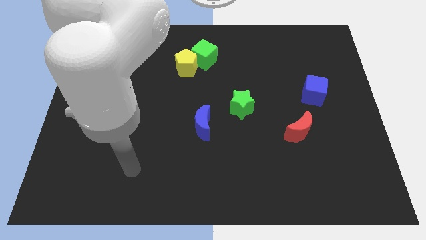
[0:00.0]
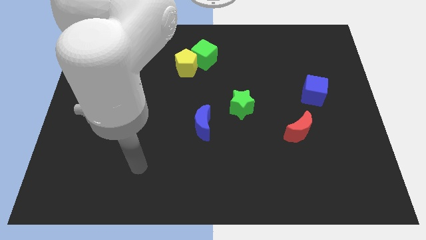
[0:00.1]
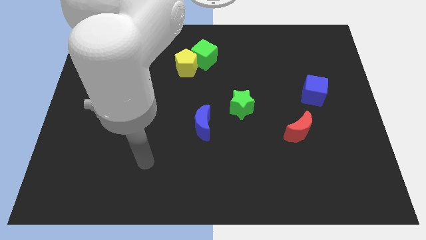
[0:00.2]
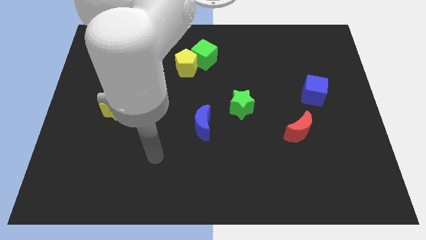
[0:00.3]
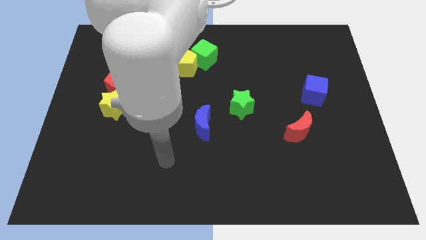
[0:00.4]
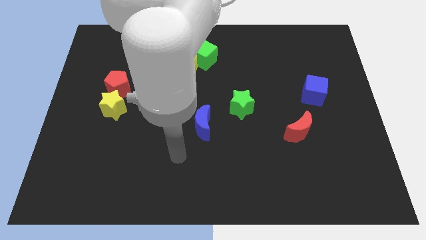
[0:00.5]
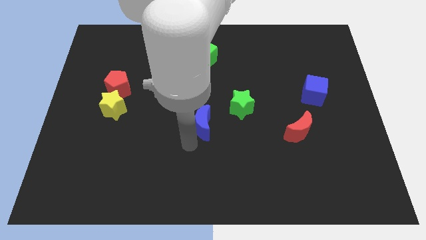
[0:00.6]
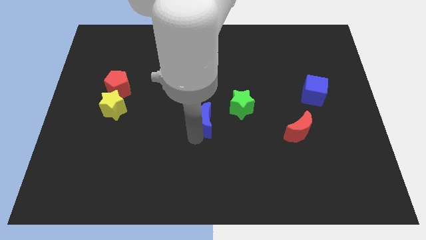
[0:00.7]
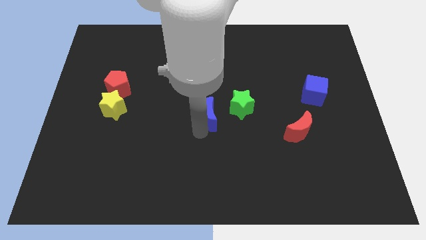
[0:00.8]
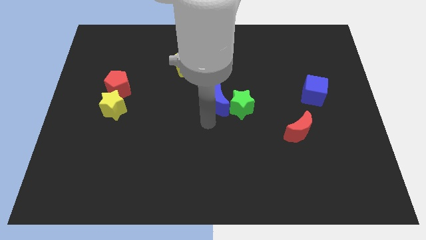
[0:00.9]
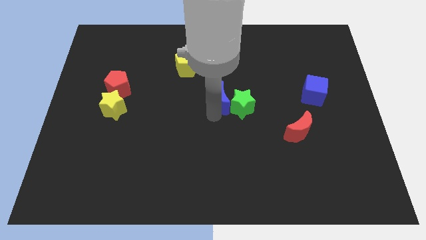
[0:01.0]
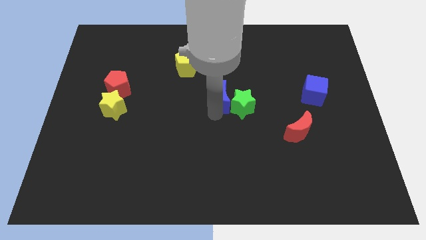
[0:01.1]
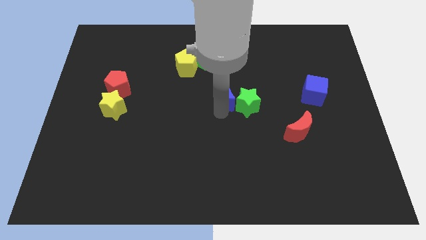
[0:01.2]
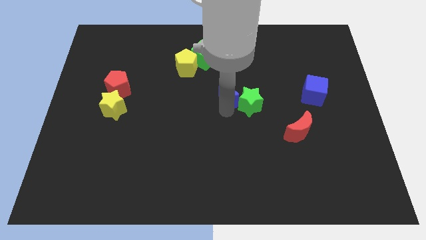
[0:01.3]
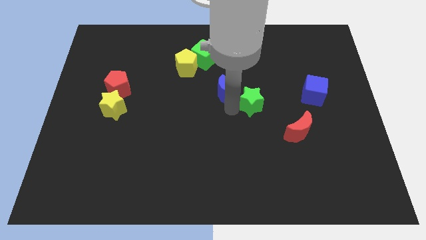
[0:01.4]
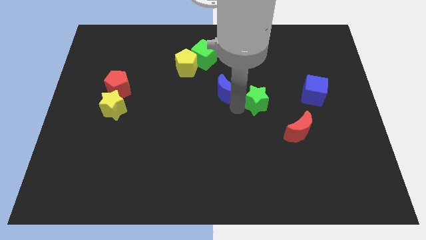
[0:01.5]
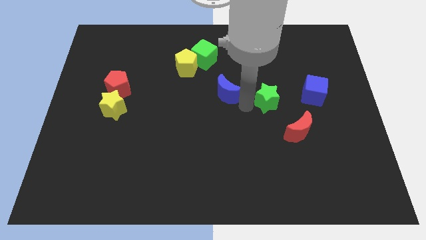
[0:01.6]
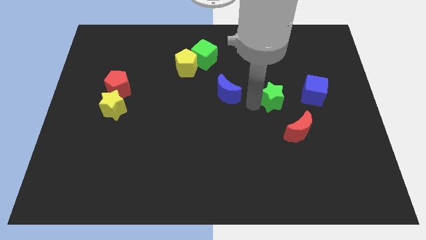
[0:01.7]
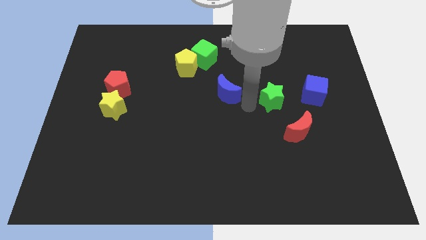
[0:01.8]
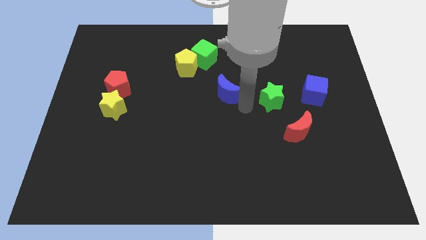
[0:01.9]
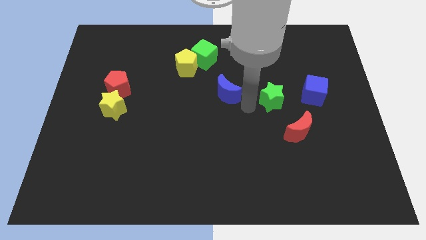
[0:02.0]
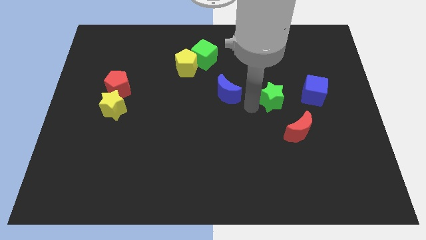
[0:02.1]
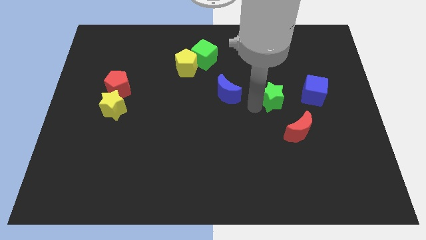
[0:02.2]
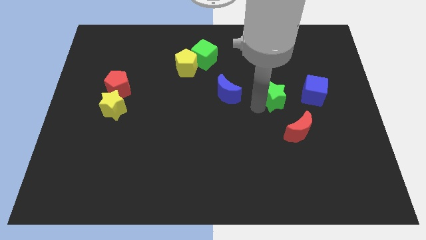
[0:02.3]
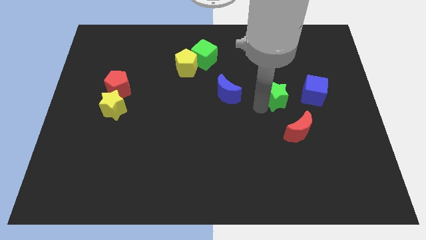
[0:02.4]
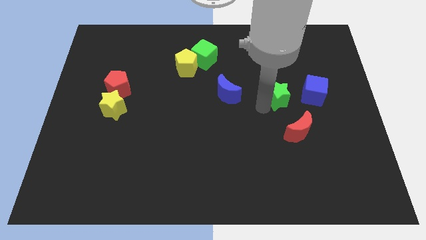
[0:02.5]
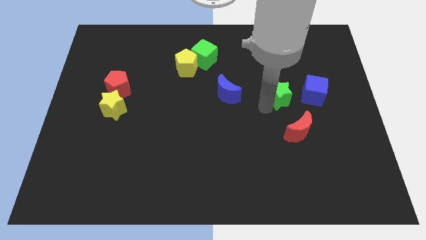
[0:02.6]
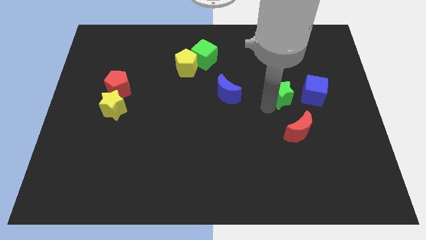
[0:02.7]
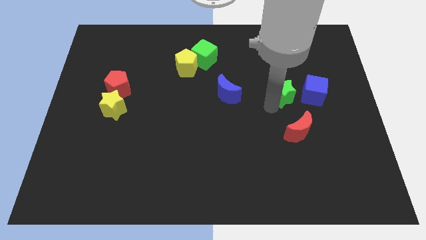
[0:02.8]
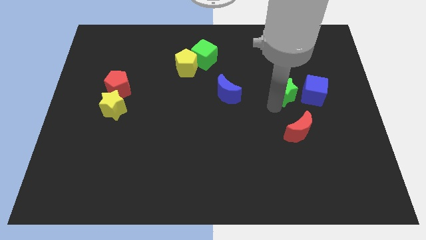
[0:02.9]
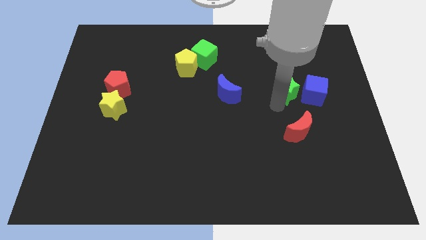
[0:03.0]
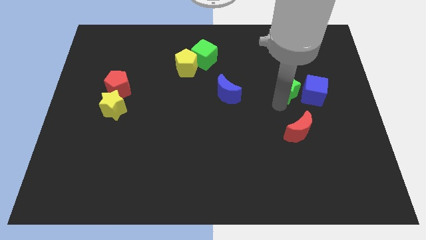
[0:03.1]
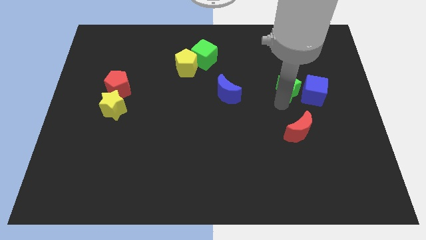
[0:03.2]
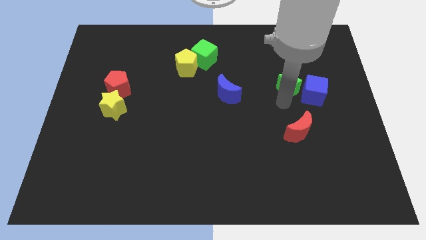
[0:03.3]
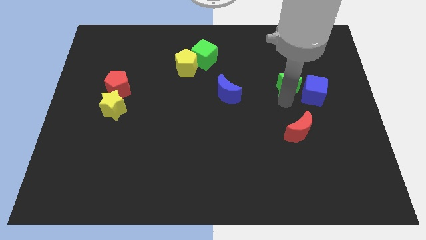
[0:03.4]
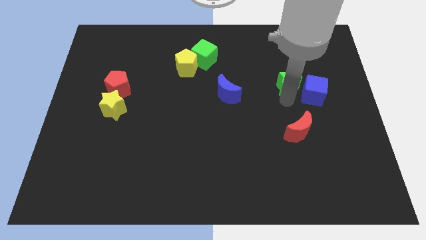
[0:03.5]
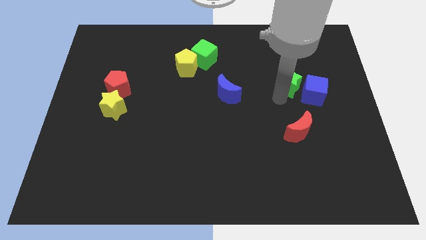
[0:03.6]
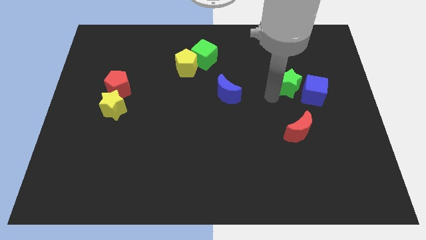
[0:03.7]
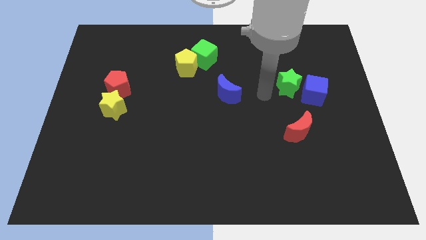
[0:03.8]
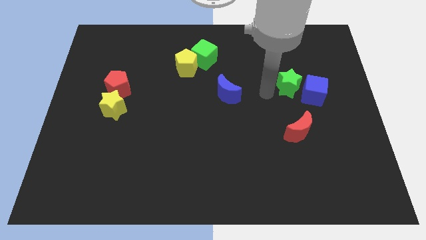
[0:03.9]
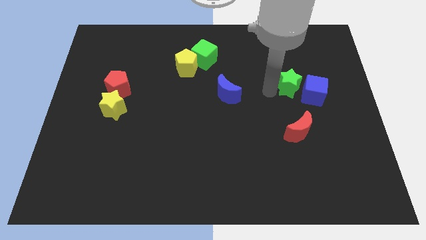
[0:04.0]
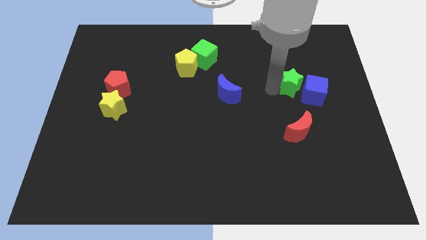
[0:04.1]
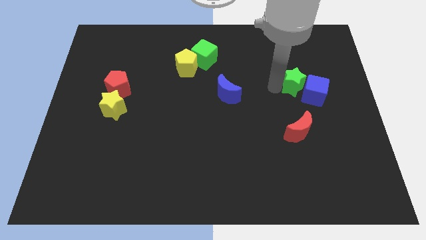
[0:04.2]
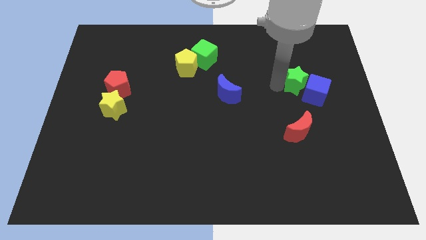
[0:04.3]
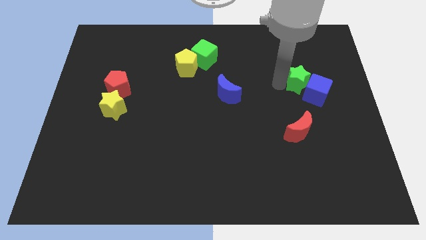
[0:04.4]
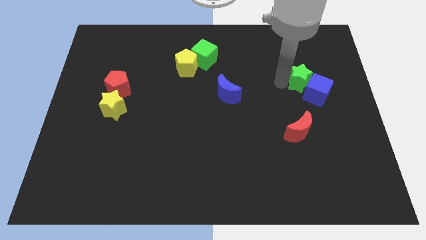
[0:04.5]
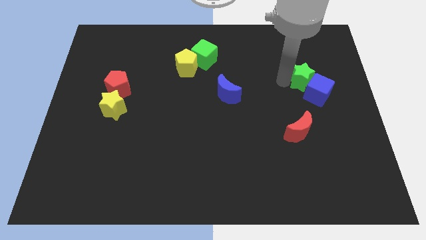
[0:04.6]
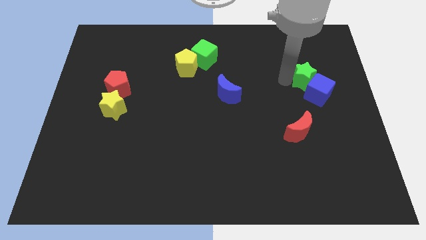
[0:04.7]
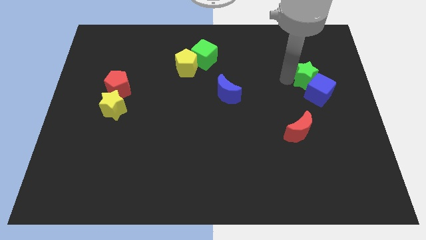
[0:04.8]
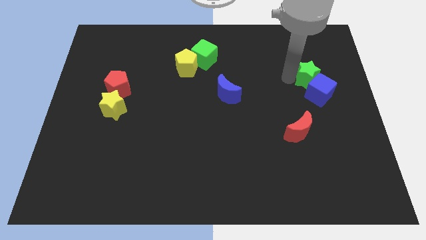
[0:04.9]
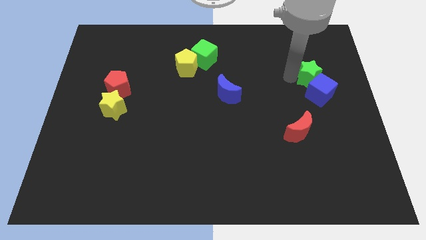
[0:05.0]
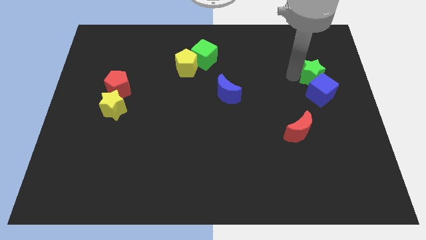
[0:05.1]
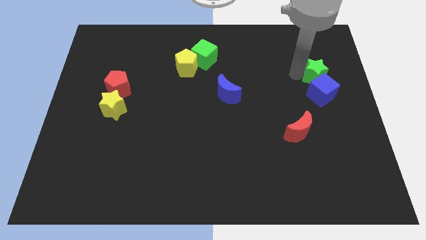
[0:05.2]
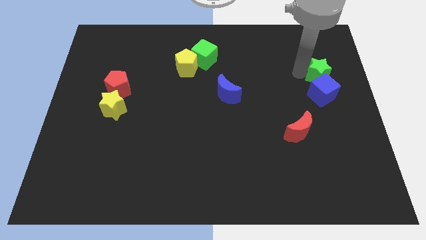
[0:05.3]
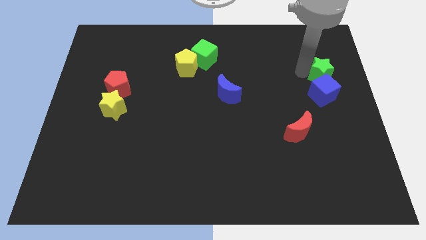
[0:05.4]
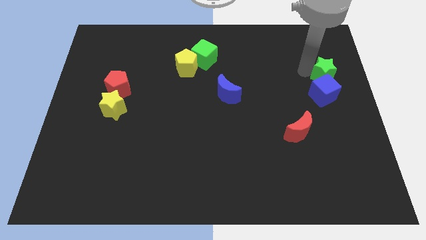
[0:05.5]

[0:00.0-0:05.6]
move the green star to the right side

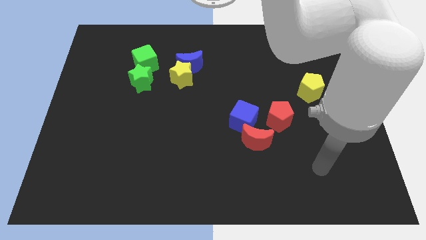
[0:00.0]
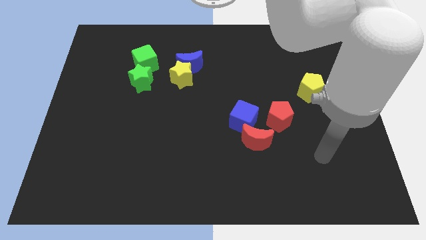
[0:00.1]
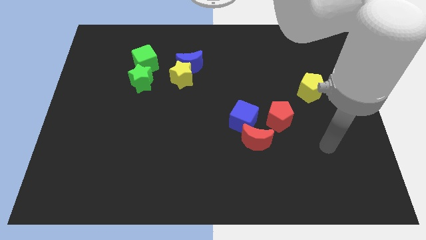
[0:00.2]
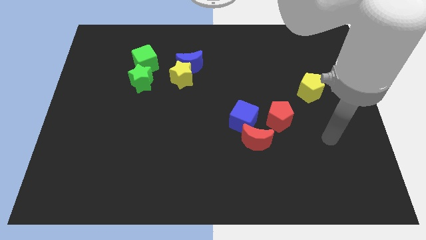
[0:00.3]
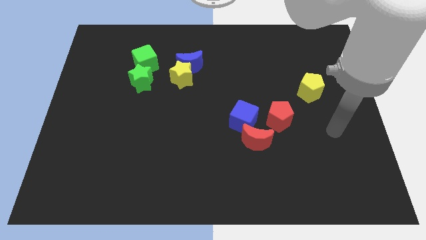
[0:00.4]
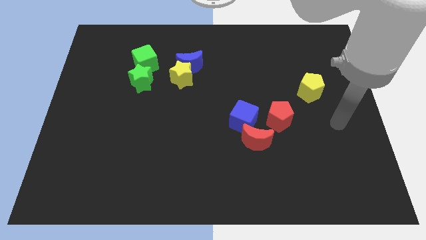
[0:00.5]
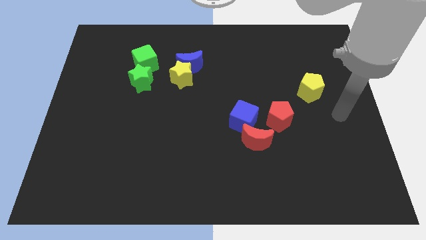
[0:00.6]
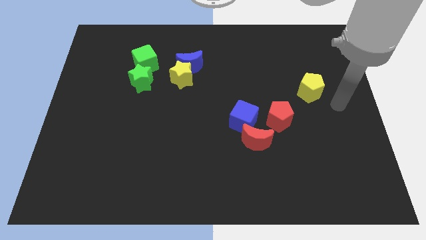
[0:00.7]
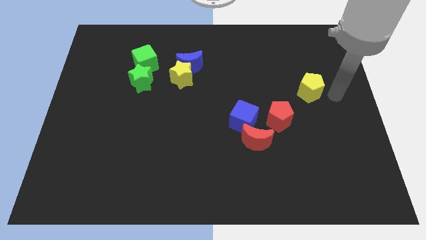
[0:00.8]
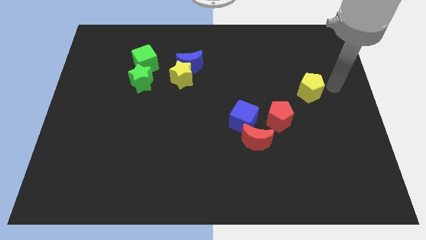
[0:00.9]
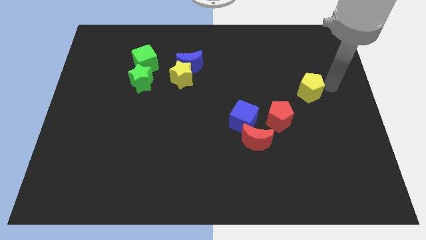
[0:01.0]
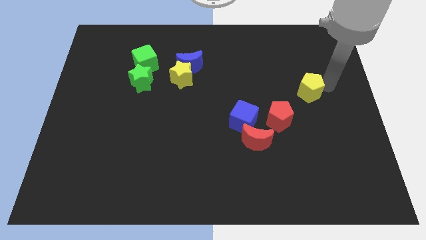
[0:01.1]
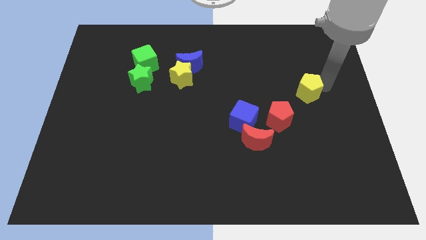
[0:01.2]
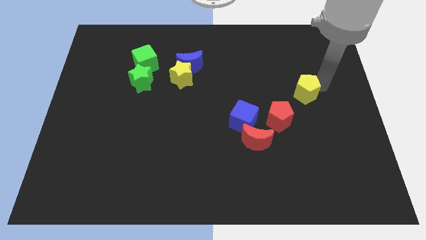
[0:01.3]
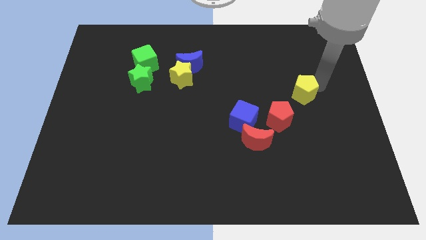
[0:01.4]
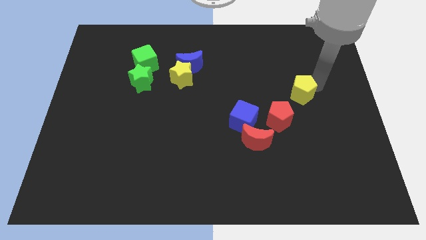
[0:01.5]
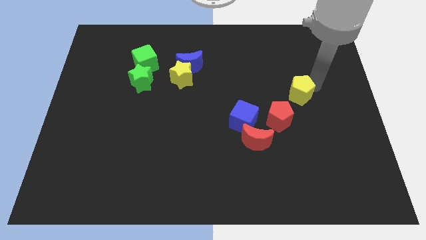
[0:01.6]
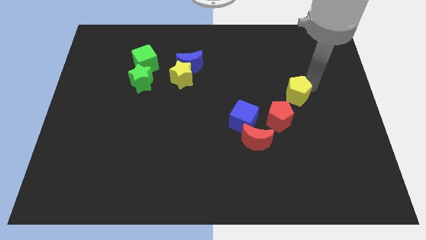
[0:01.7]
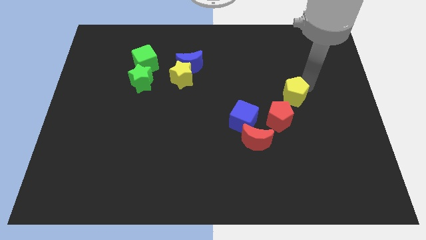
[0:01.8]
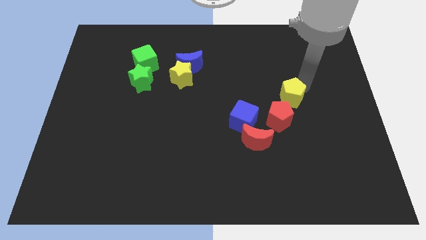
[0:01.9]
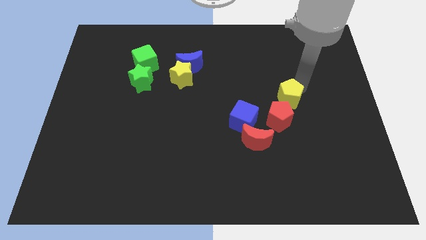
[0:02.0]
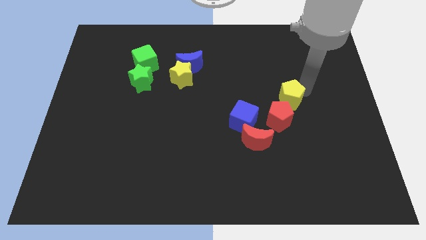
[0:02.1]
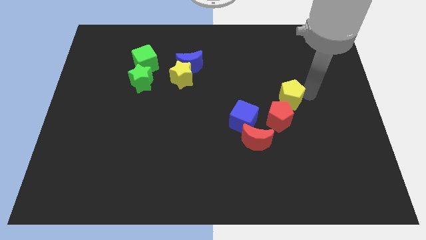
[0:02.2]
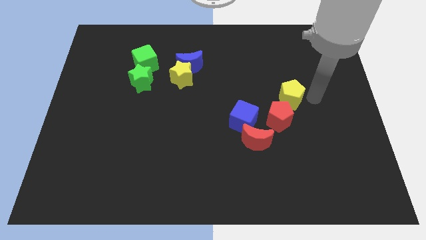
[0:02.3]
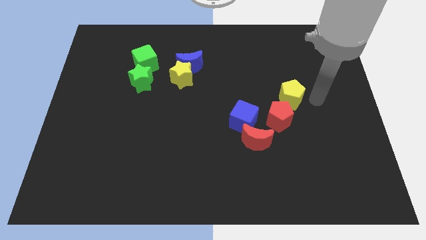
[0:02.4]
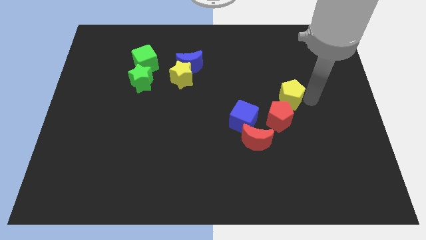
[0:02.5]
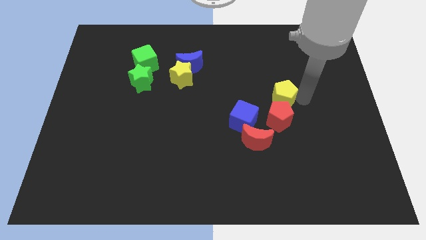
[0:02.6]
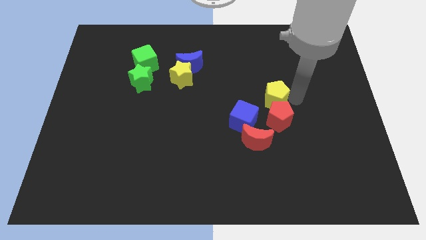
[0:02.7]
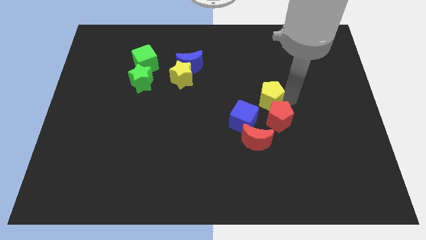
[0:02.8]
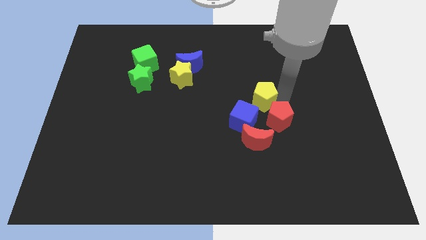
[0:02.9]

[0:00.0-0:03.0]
put the yellow pentagon to the center
